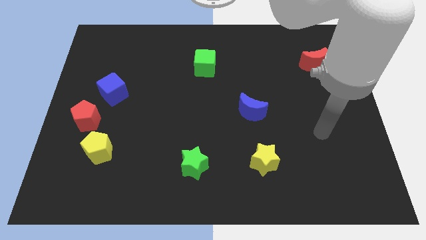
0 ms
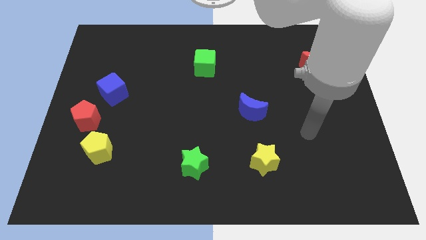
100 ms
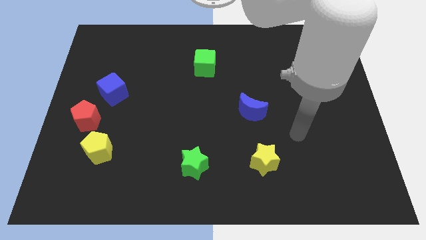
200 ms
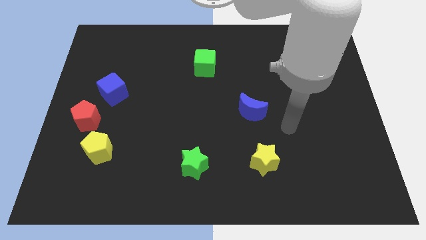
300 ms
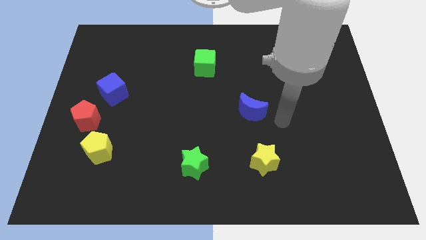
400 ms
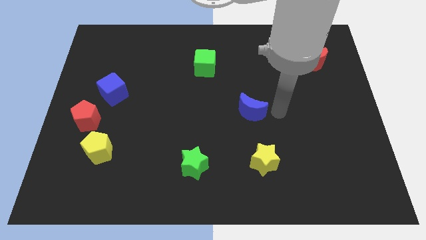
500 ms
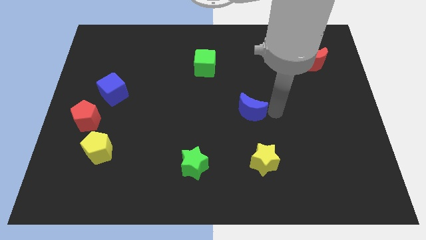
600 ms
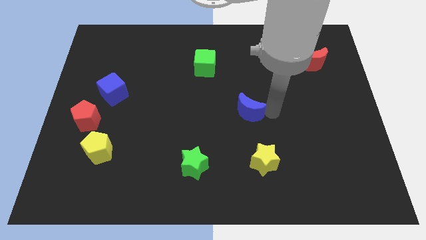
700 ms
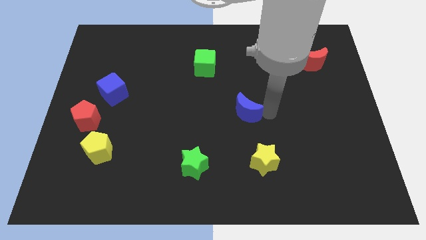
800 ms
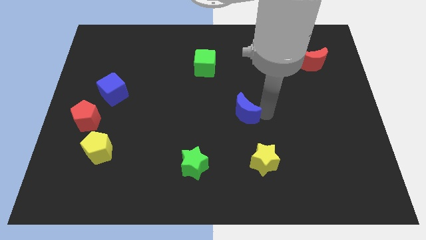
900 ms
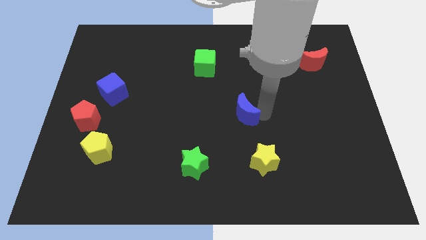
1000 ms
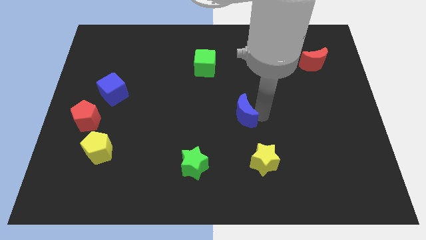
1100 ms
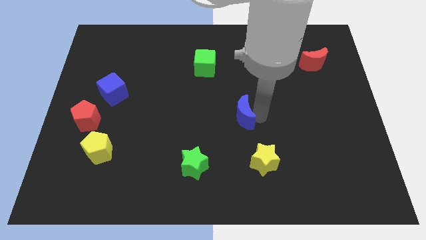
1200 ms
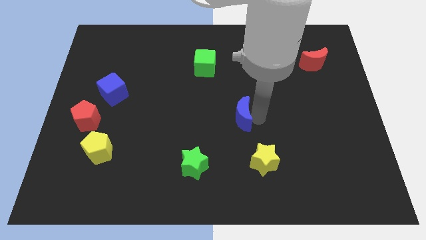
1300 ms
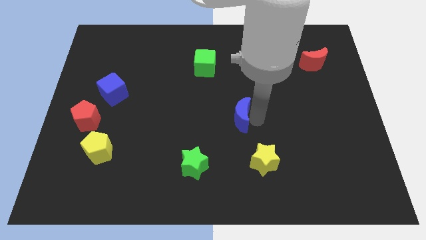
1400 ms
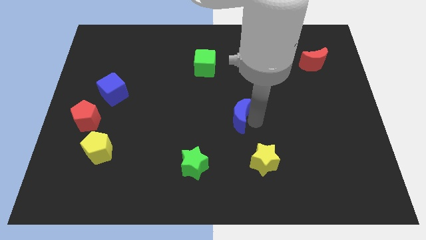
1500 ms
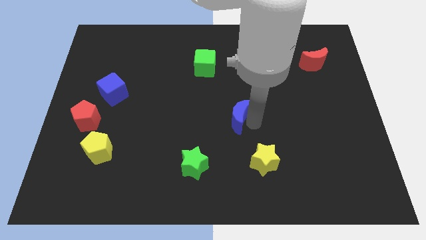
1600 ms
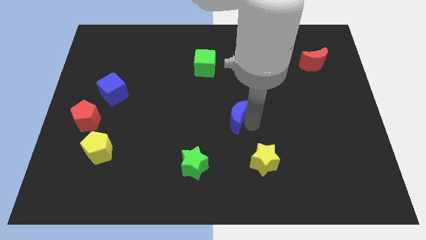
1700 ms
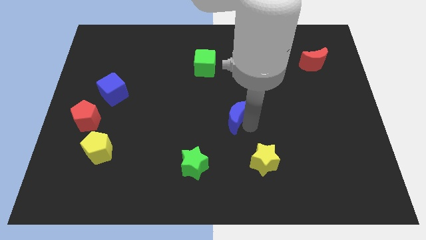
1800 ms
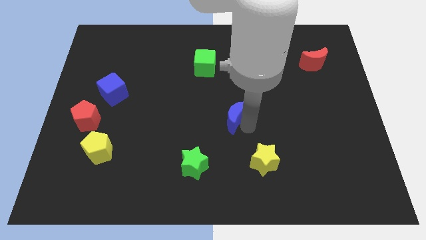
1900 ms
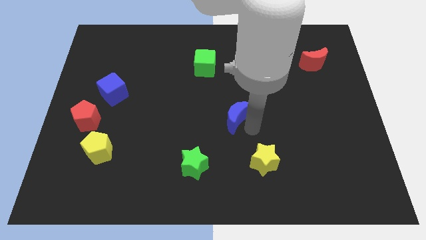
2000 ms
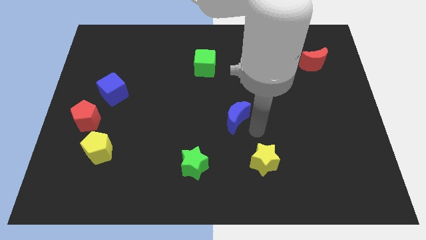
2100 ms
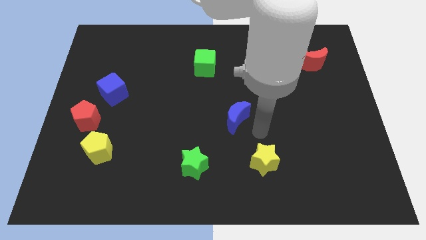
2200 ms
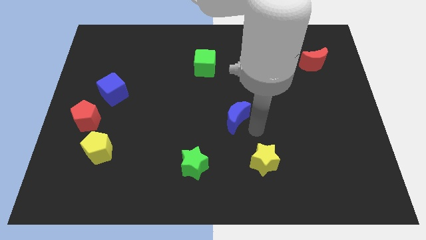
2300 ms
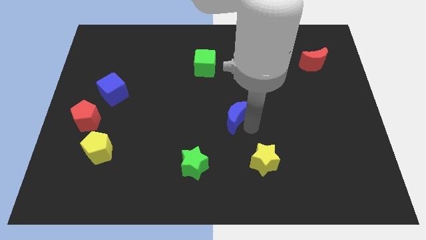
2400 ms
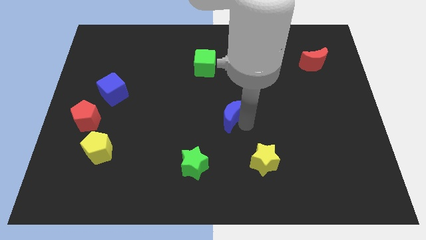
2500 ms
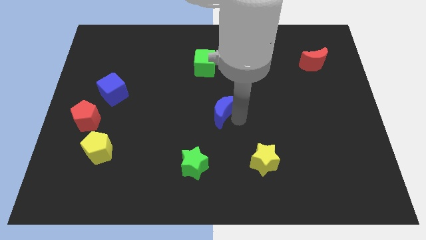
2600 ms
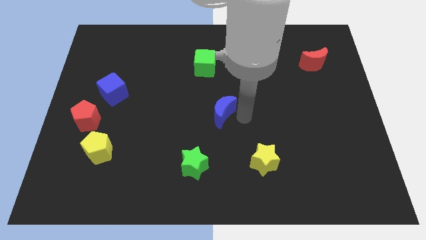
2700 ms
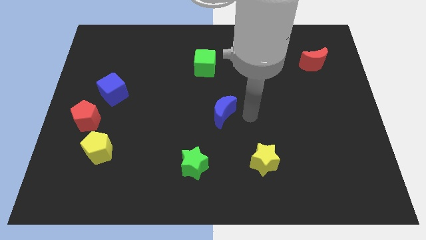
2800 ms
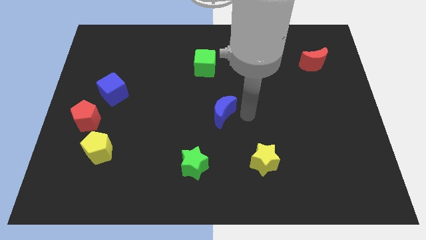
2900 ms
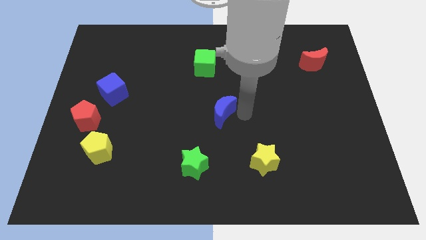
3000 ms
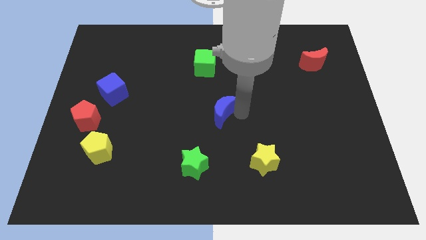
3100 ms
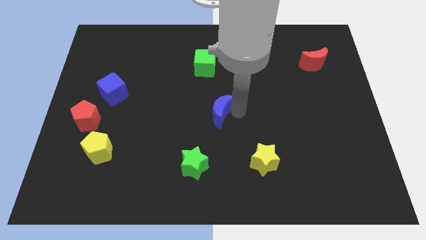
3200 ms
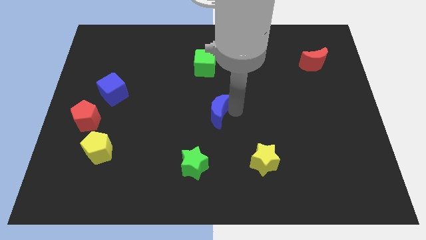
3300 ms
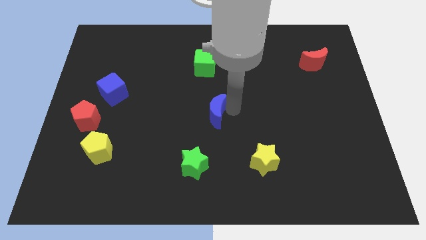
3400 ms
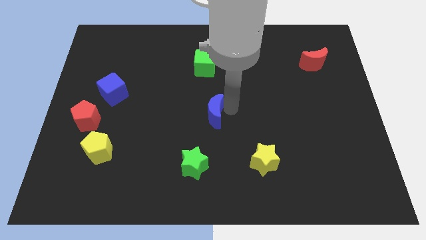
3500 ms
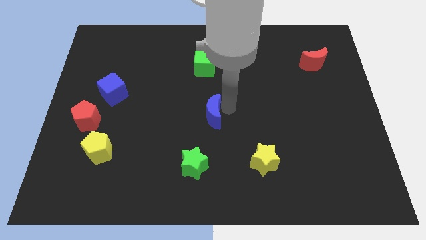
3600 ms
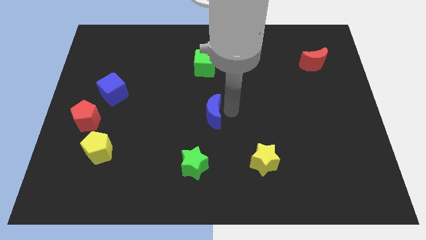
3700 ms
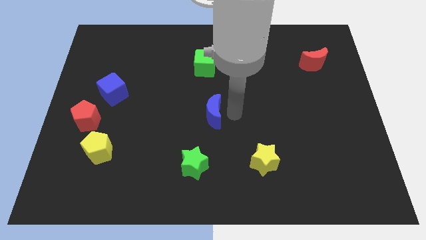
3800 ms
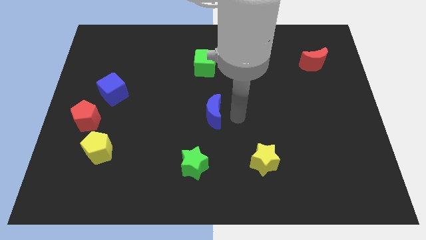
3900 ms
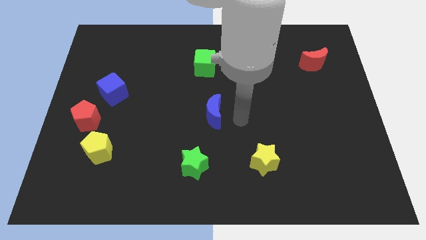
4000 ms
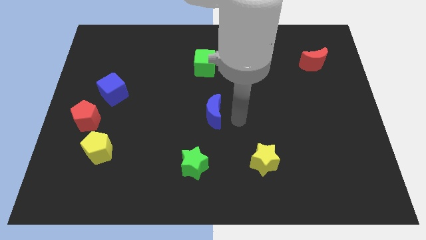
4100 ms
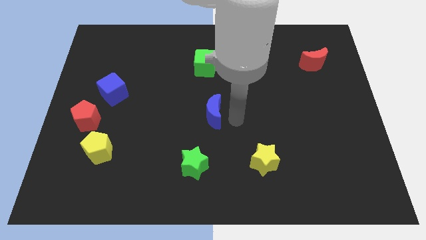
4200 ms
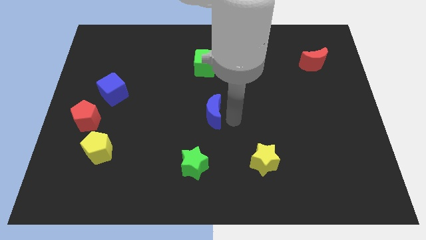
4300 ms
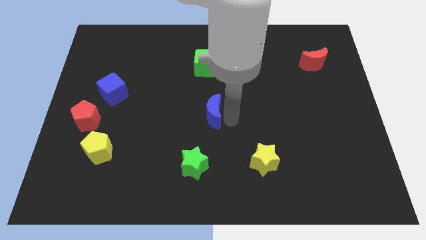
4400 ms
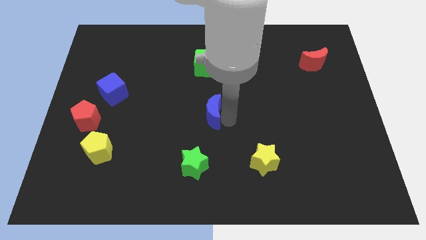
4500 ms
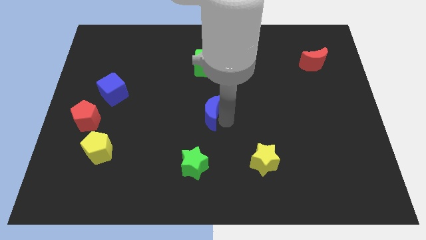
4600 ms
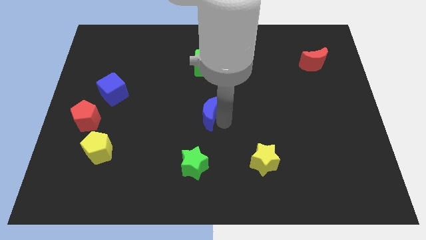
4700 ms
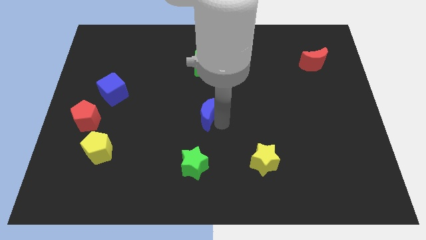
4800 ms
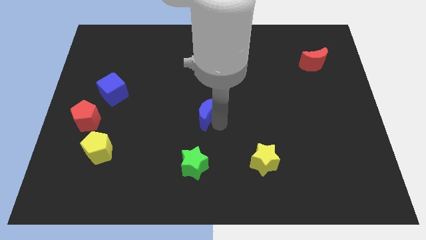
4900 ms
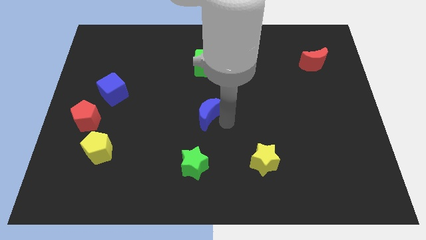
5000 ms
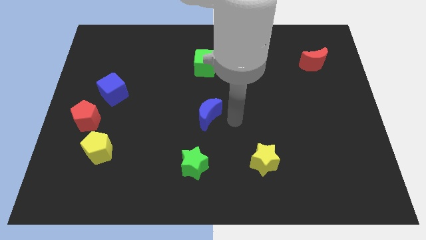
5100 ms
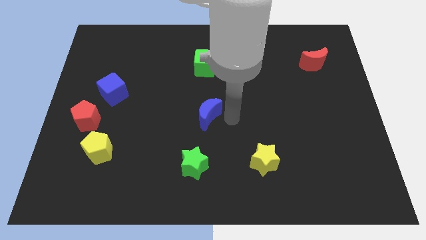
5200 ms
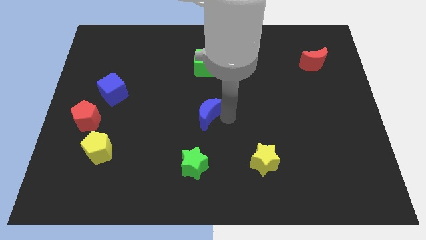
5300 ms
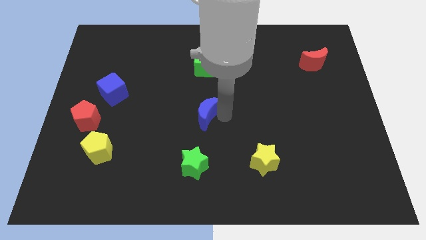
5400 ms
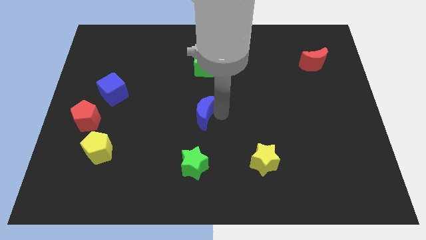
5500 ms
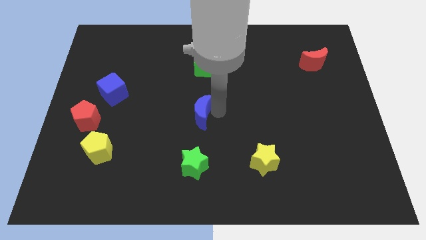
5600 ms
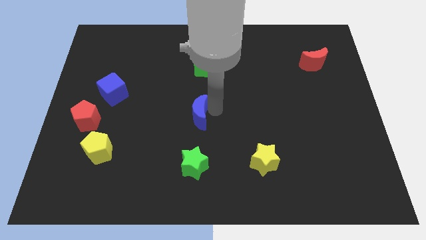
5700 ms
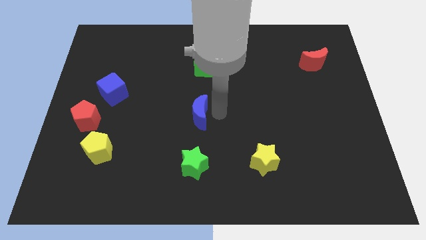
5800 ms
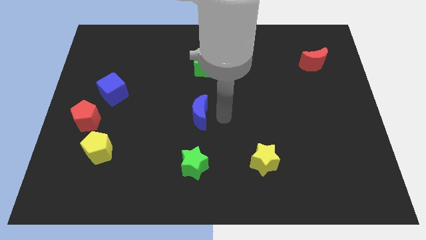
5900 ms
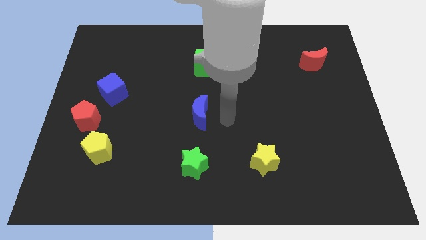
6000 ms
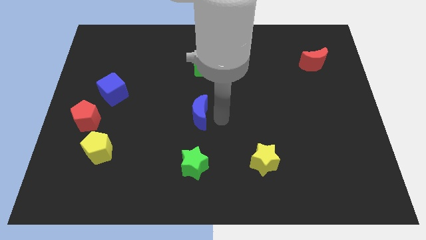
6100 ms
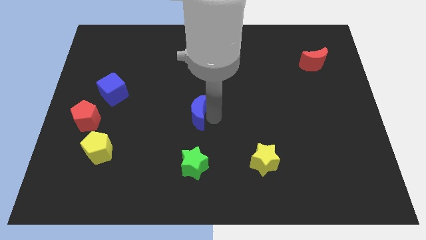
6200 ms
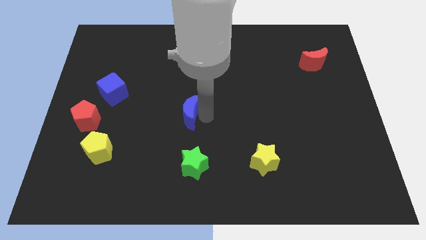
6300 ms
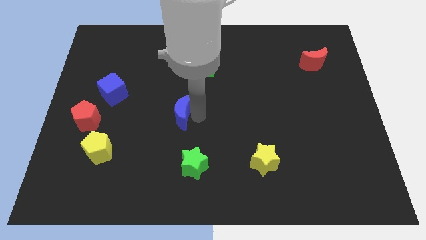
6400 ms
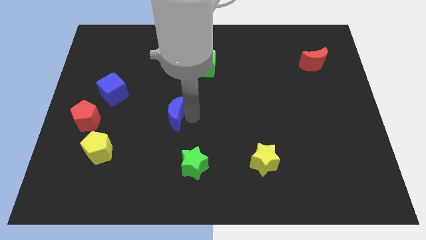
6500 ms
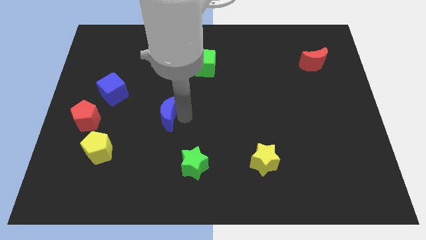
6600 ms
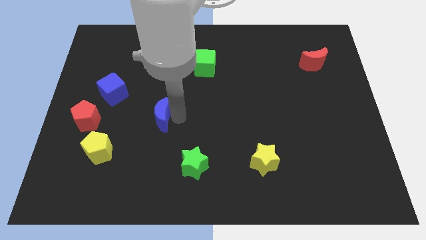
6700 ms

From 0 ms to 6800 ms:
push the blue moon to the left

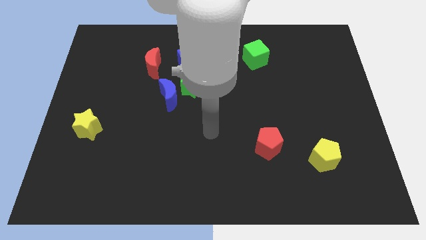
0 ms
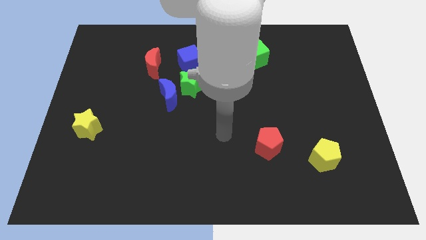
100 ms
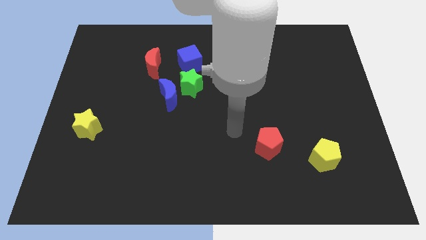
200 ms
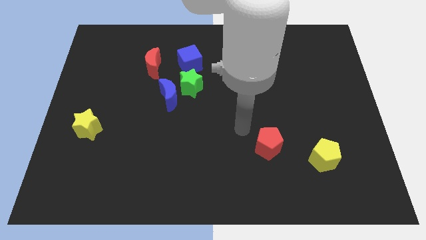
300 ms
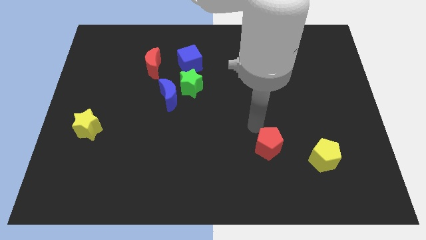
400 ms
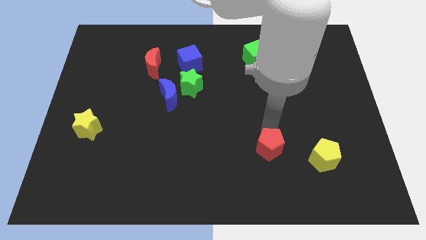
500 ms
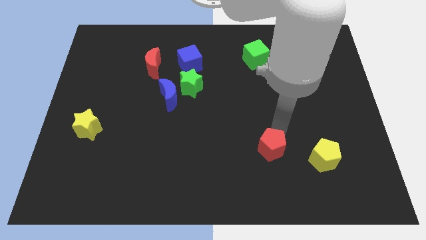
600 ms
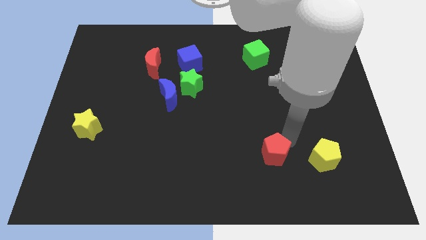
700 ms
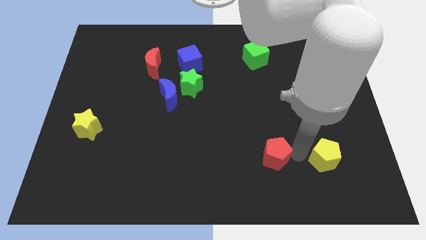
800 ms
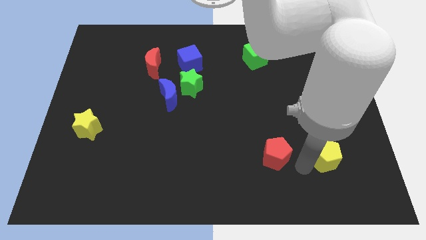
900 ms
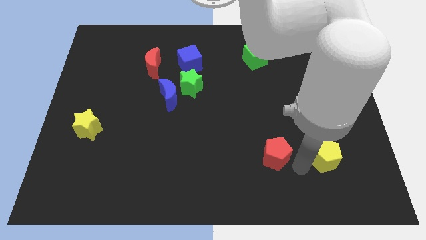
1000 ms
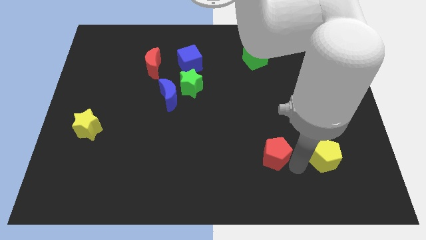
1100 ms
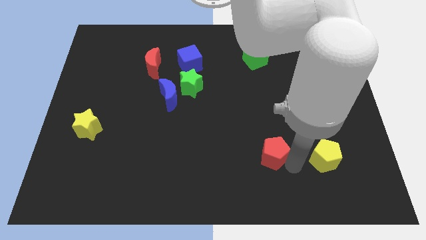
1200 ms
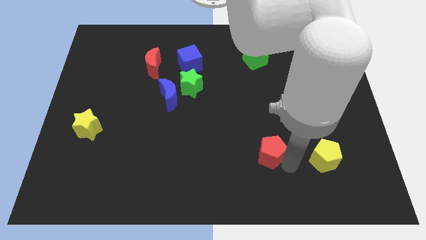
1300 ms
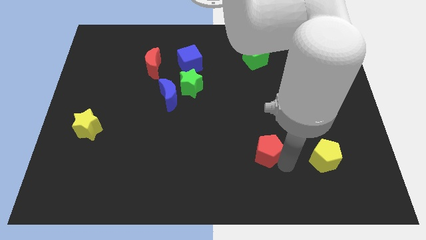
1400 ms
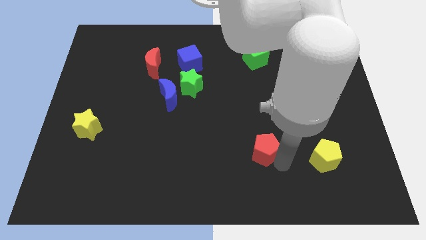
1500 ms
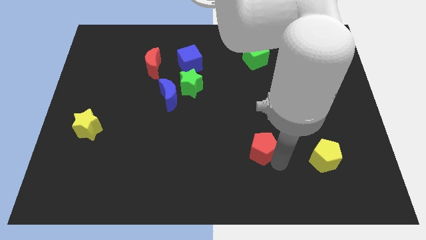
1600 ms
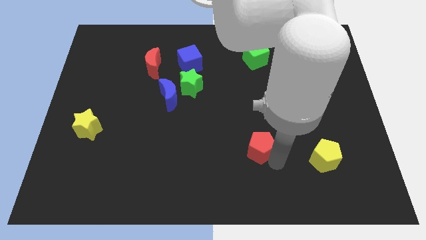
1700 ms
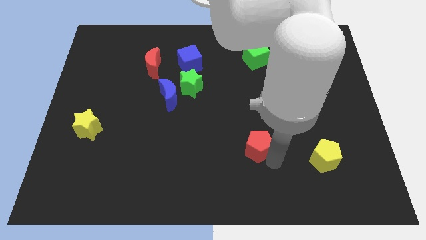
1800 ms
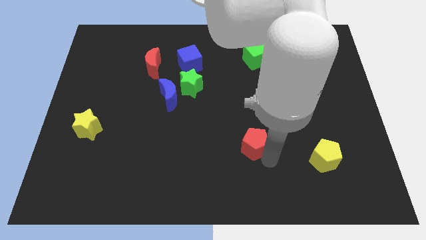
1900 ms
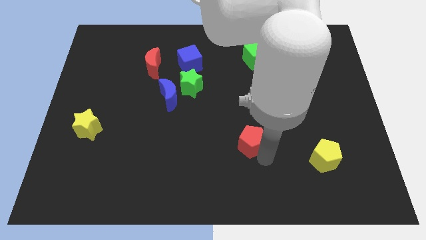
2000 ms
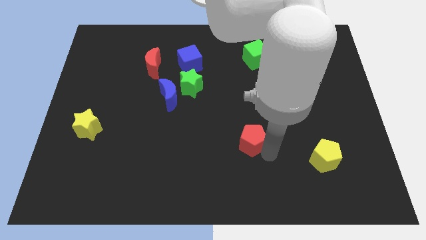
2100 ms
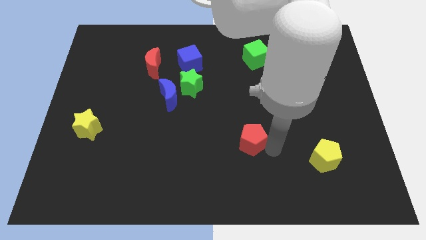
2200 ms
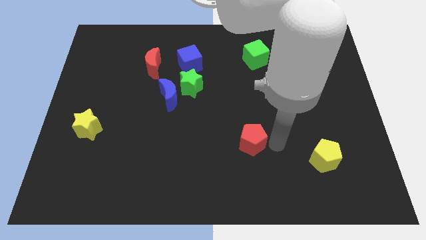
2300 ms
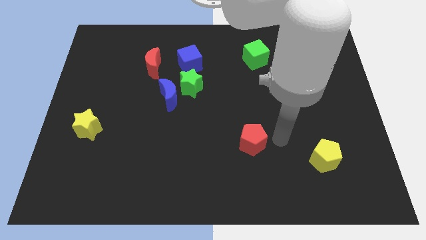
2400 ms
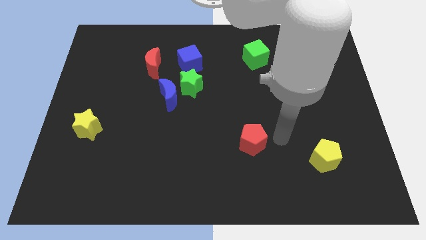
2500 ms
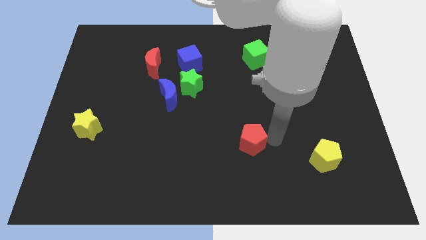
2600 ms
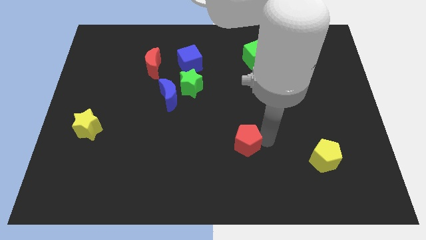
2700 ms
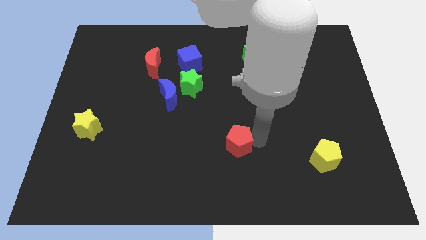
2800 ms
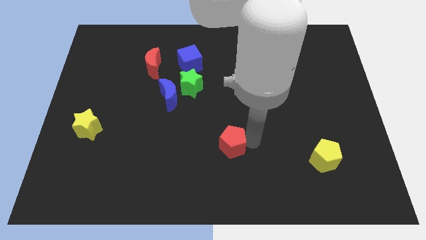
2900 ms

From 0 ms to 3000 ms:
slightly push the red pentagon to the left
